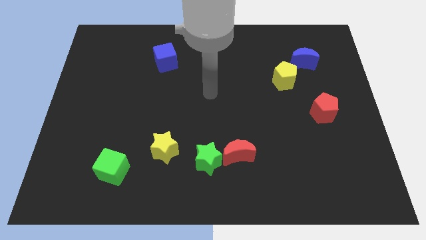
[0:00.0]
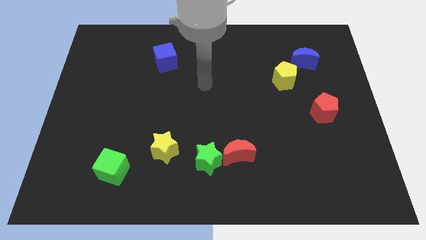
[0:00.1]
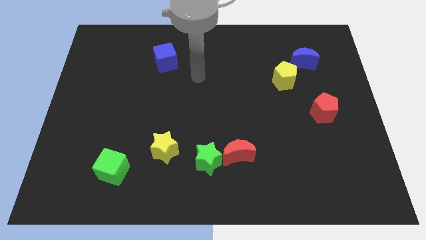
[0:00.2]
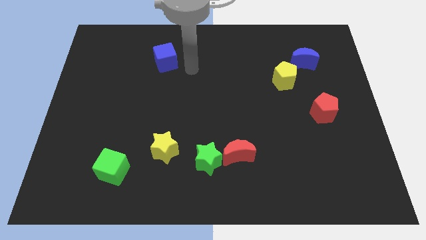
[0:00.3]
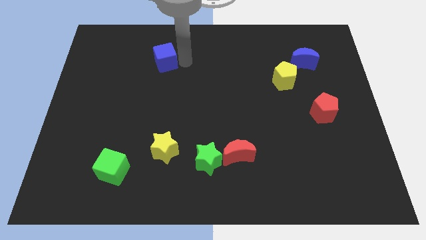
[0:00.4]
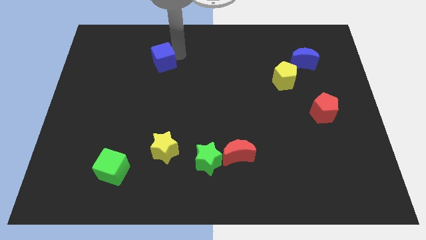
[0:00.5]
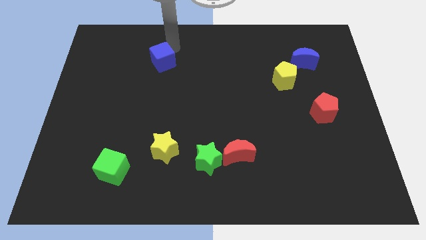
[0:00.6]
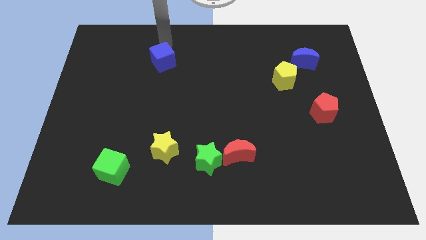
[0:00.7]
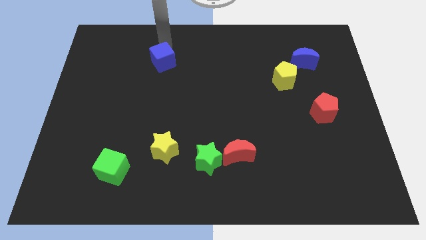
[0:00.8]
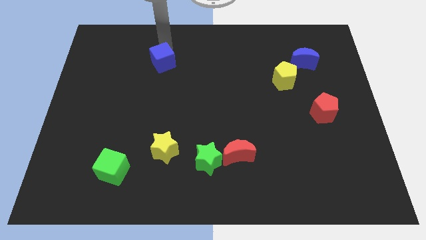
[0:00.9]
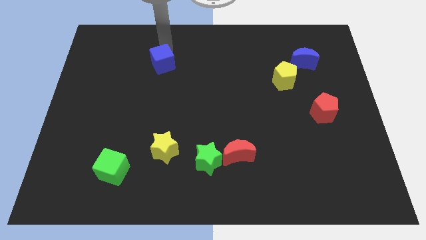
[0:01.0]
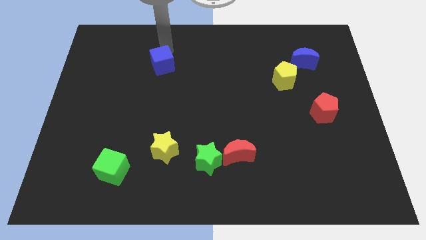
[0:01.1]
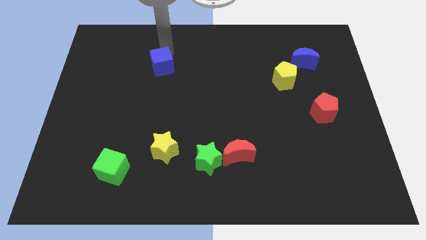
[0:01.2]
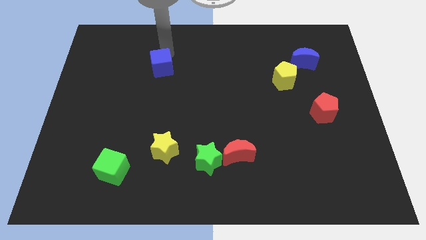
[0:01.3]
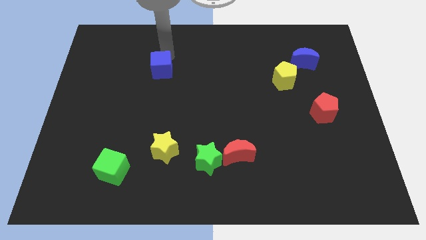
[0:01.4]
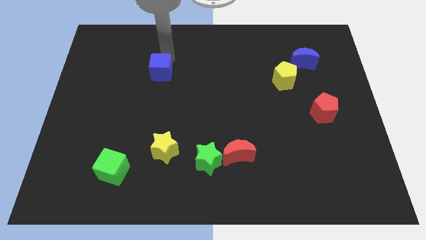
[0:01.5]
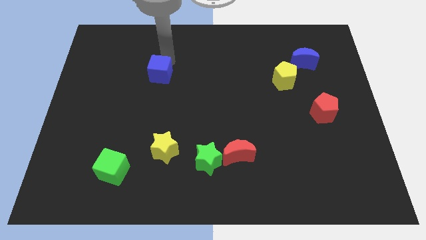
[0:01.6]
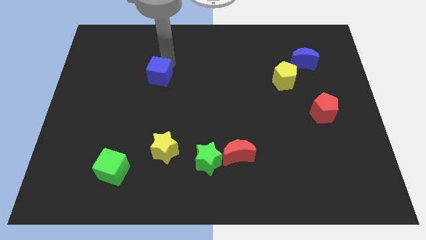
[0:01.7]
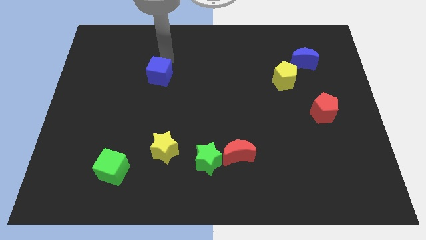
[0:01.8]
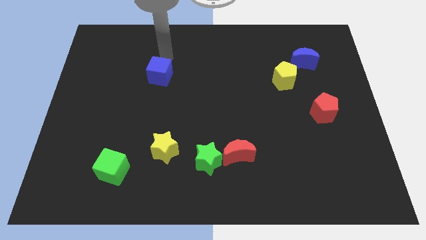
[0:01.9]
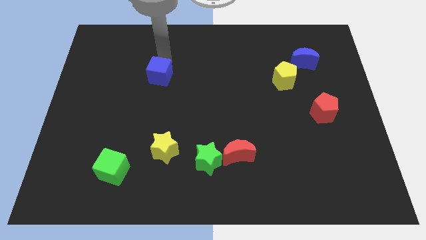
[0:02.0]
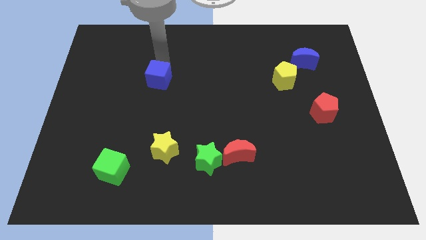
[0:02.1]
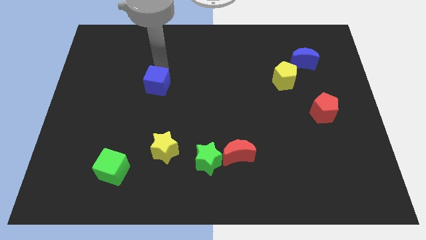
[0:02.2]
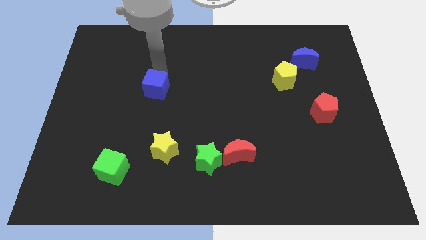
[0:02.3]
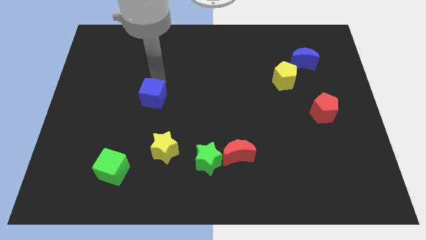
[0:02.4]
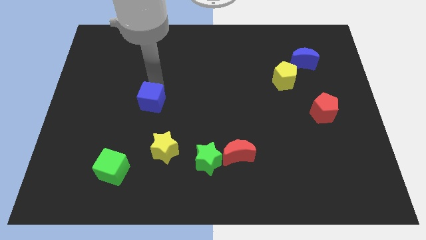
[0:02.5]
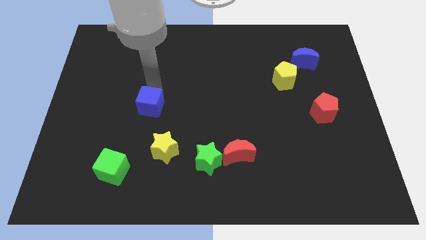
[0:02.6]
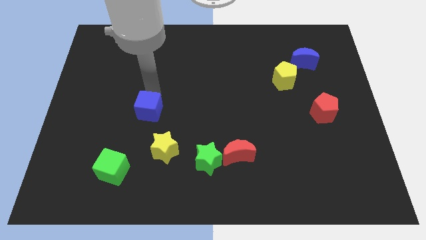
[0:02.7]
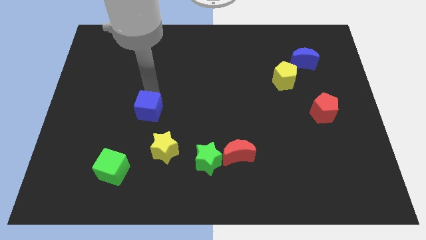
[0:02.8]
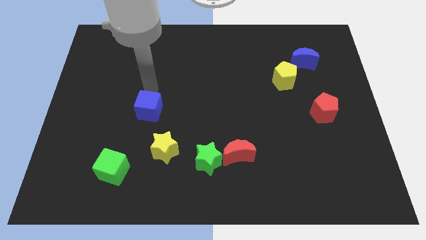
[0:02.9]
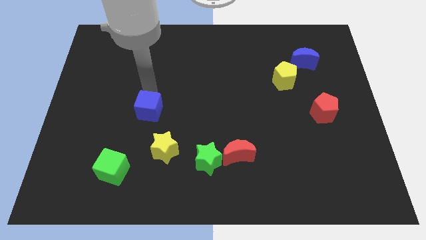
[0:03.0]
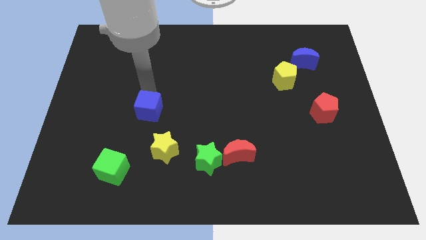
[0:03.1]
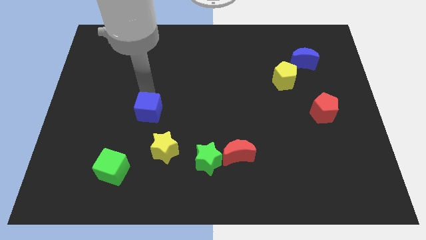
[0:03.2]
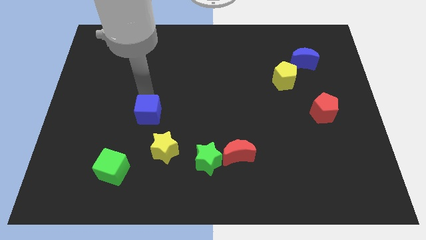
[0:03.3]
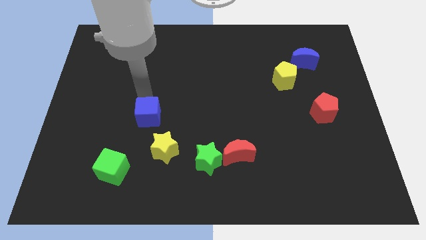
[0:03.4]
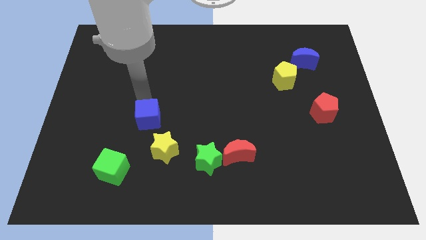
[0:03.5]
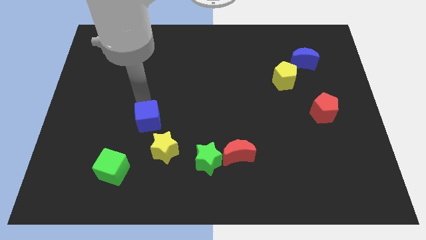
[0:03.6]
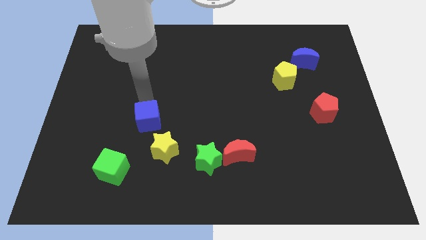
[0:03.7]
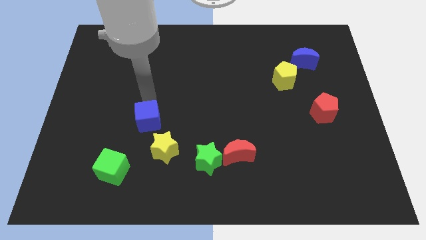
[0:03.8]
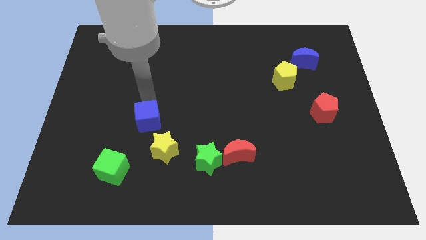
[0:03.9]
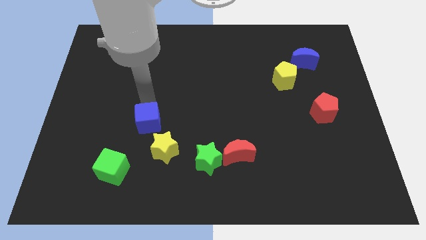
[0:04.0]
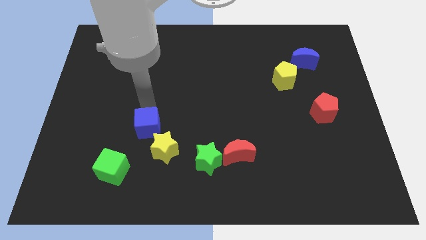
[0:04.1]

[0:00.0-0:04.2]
move the blue cube downwards

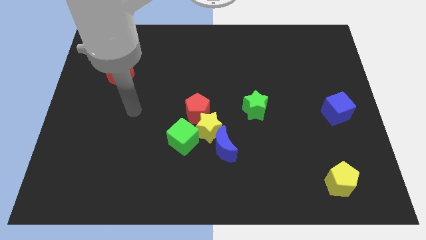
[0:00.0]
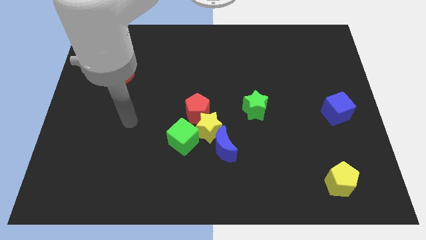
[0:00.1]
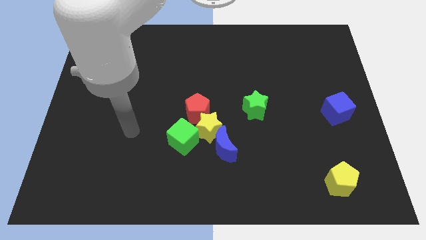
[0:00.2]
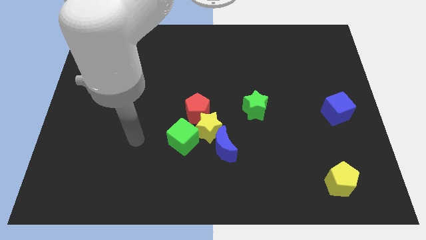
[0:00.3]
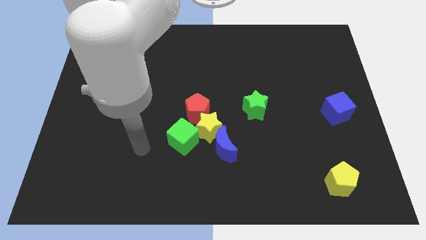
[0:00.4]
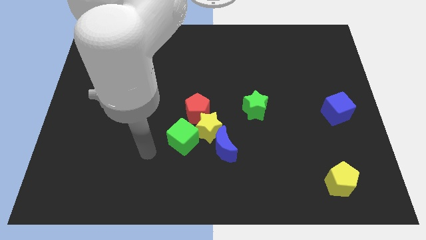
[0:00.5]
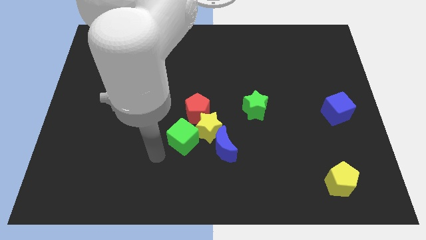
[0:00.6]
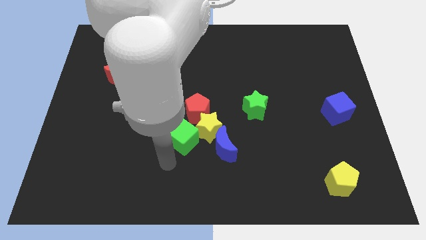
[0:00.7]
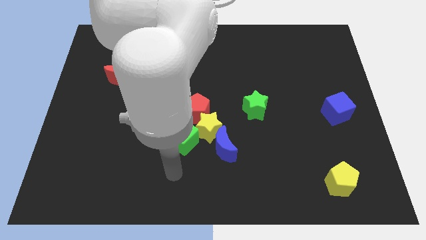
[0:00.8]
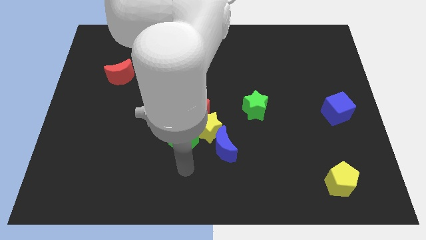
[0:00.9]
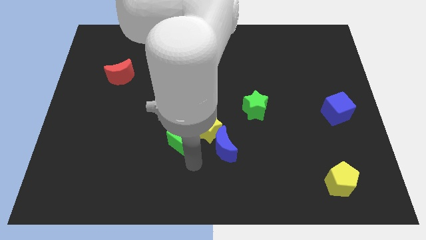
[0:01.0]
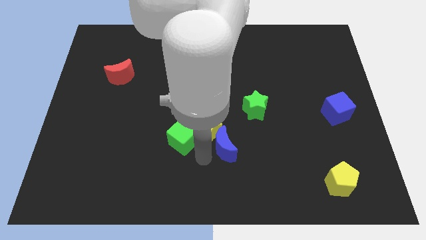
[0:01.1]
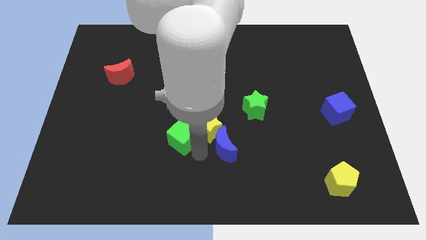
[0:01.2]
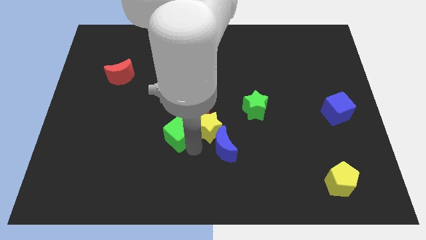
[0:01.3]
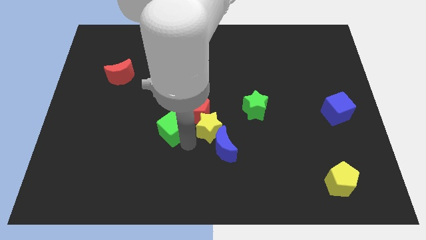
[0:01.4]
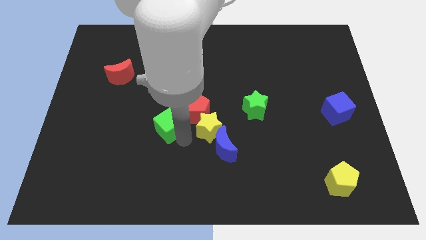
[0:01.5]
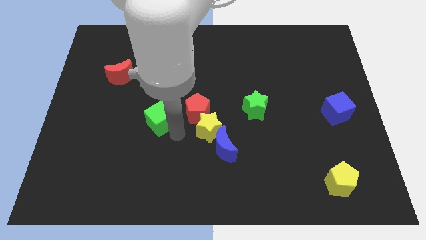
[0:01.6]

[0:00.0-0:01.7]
slide the green cube diagonally up and left a little

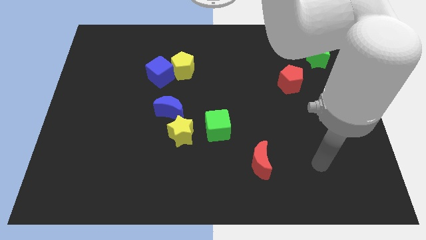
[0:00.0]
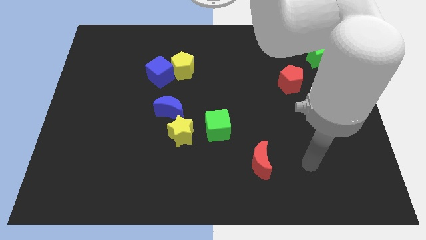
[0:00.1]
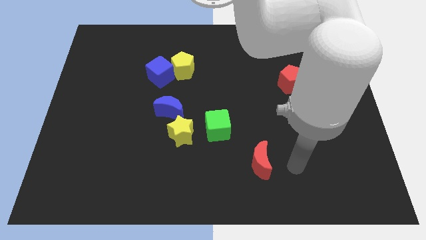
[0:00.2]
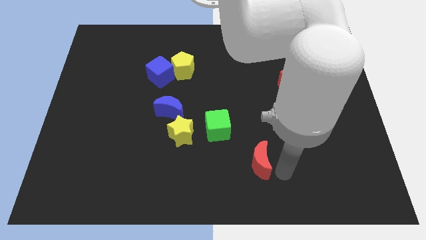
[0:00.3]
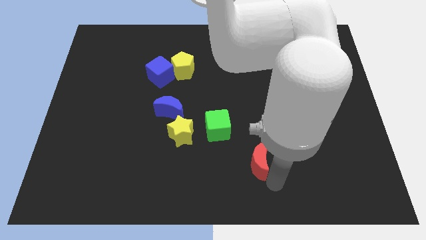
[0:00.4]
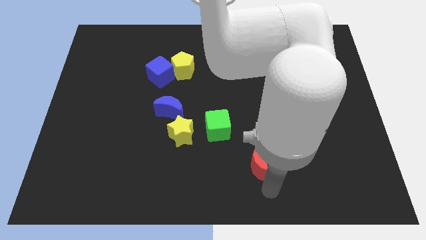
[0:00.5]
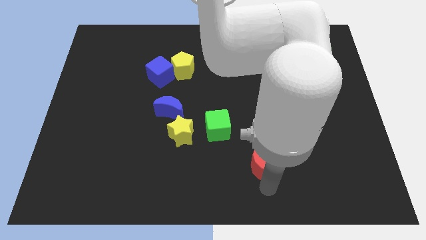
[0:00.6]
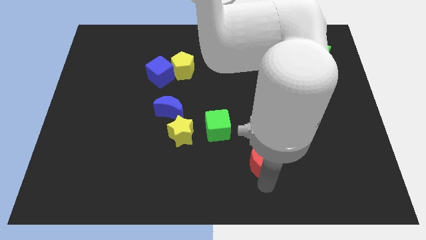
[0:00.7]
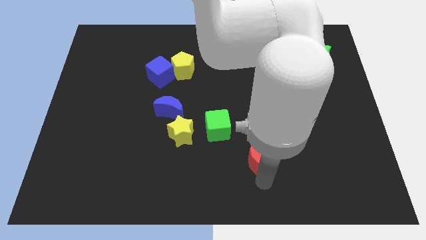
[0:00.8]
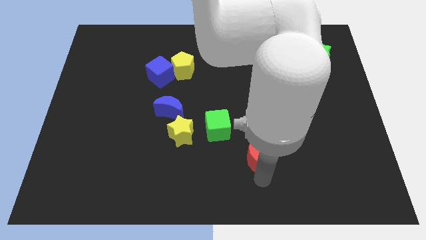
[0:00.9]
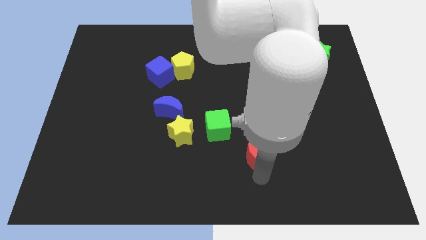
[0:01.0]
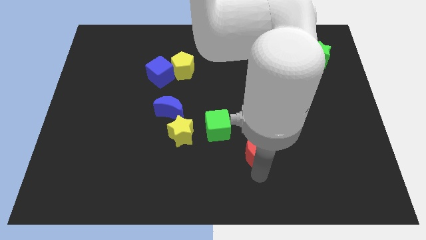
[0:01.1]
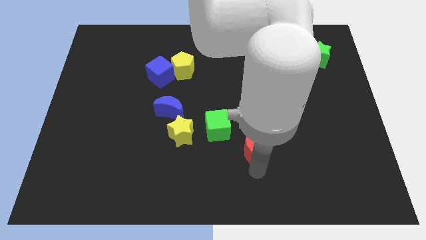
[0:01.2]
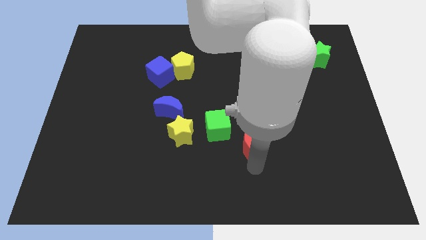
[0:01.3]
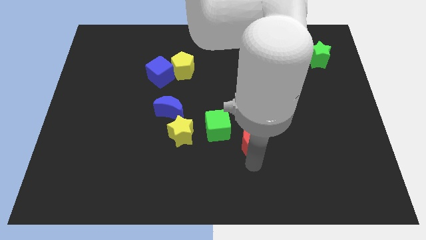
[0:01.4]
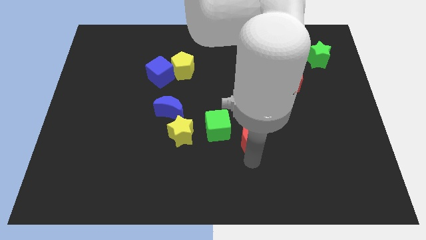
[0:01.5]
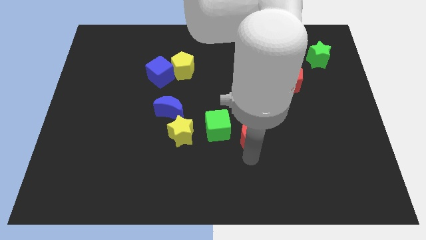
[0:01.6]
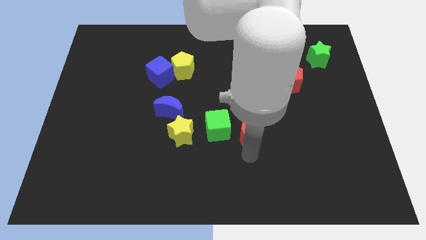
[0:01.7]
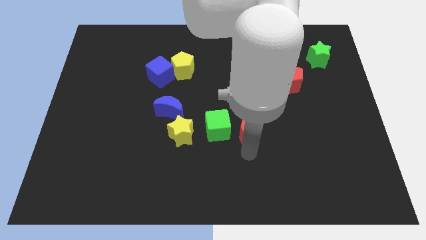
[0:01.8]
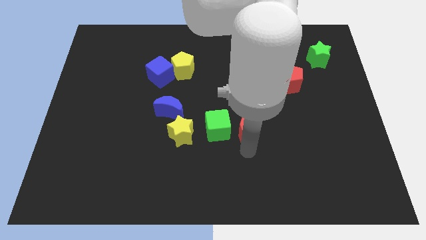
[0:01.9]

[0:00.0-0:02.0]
push the red moon up and then to the left somewhat
